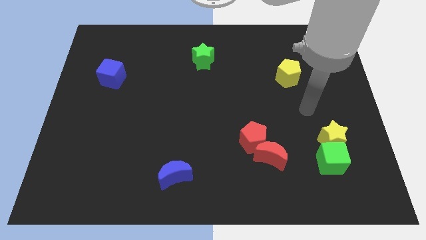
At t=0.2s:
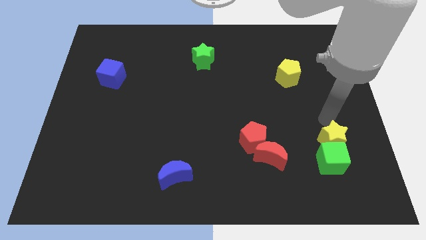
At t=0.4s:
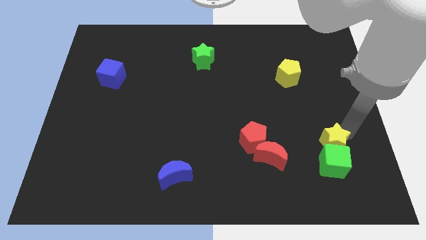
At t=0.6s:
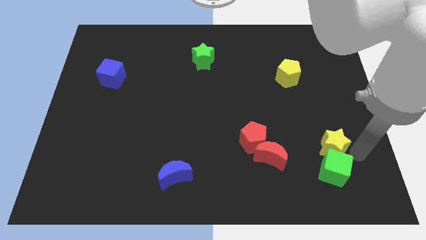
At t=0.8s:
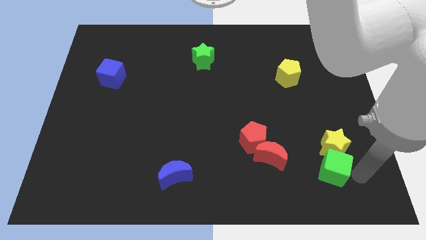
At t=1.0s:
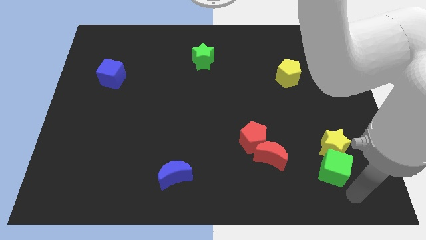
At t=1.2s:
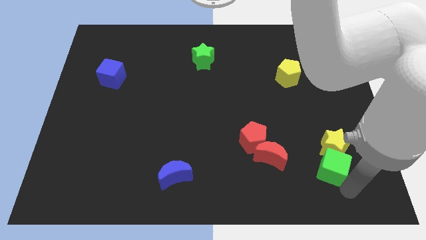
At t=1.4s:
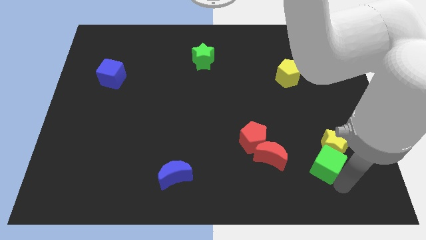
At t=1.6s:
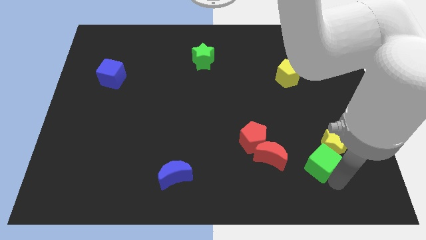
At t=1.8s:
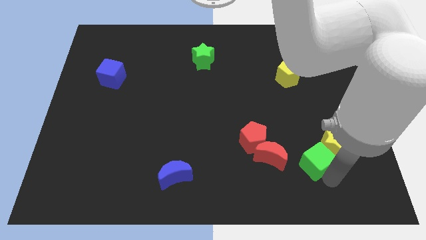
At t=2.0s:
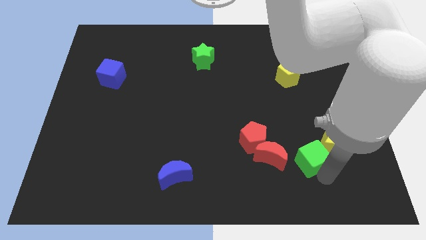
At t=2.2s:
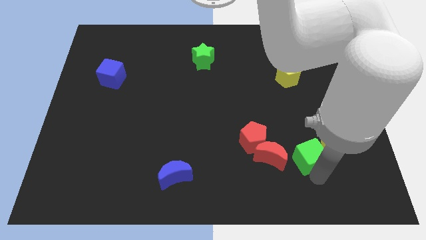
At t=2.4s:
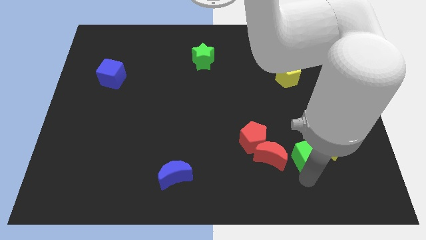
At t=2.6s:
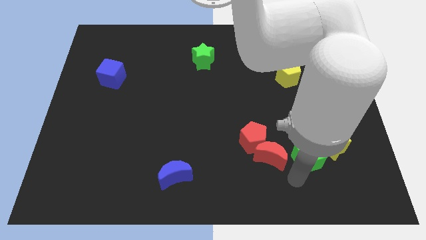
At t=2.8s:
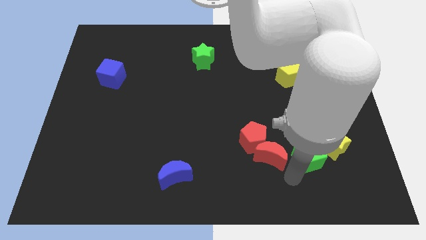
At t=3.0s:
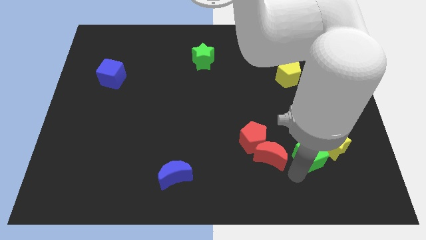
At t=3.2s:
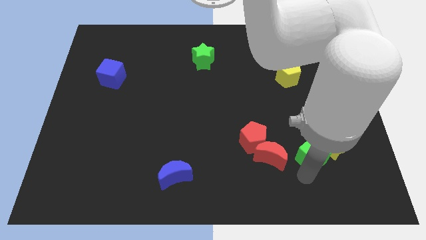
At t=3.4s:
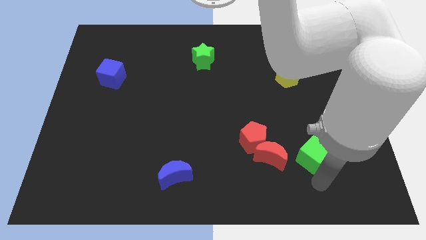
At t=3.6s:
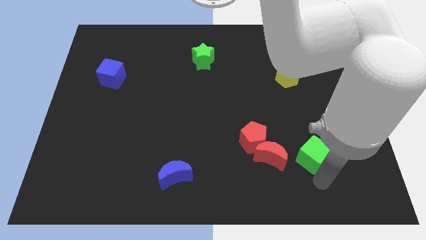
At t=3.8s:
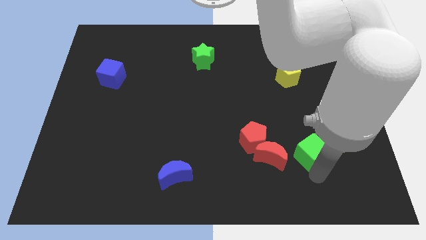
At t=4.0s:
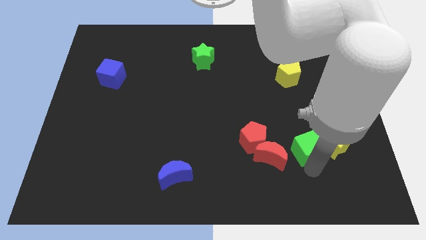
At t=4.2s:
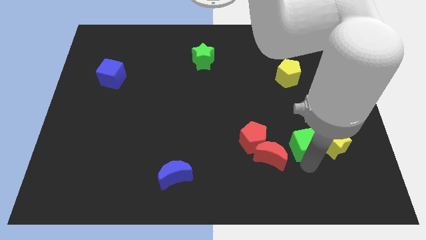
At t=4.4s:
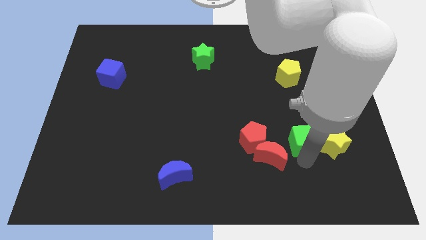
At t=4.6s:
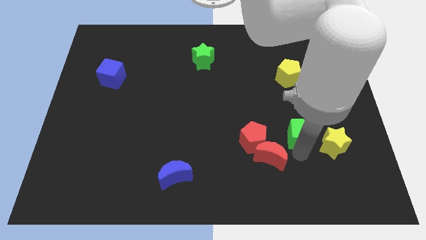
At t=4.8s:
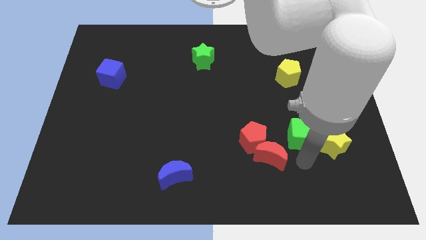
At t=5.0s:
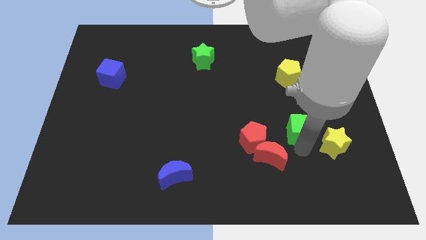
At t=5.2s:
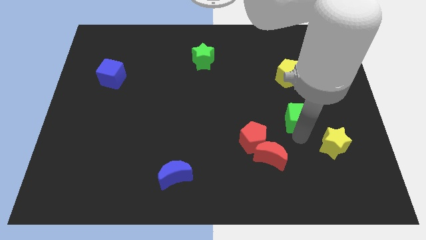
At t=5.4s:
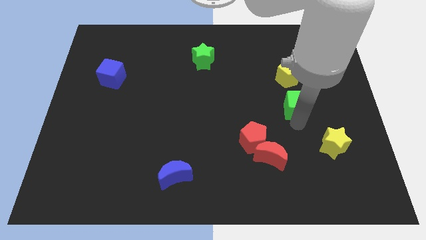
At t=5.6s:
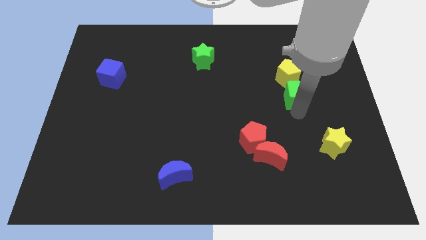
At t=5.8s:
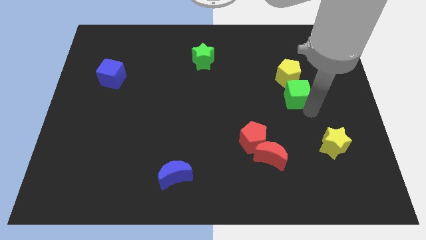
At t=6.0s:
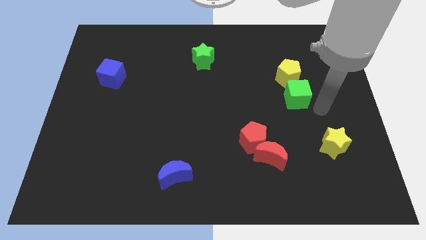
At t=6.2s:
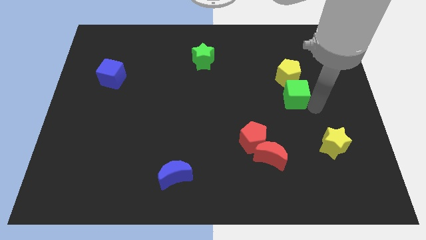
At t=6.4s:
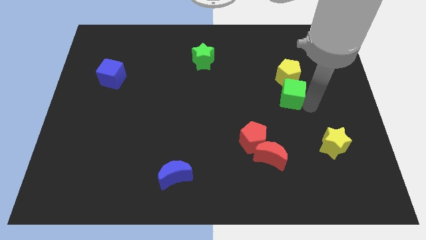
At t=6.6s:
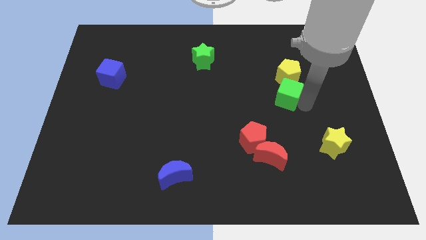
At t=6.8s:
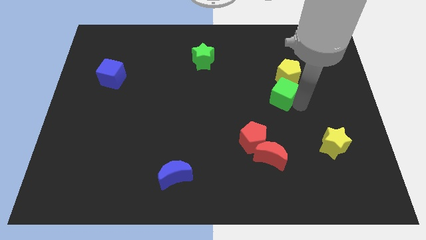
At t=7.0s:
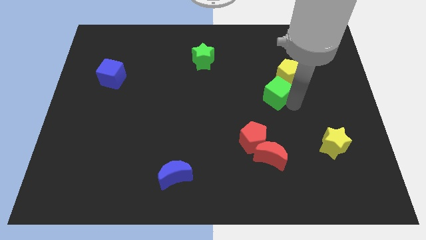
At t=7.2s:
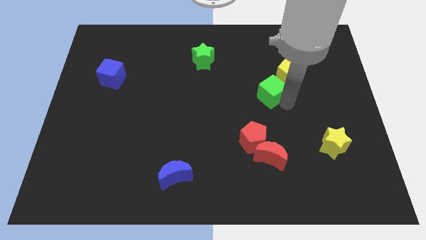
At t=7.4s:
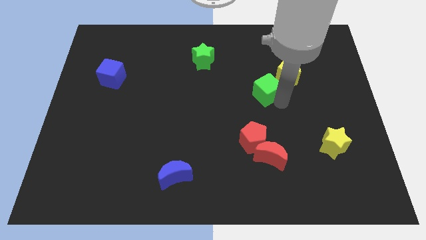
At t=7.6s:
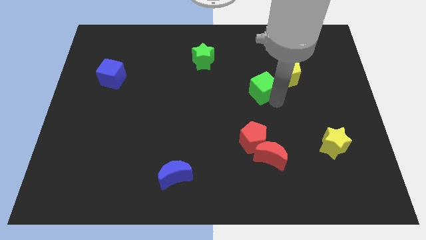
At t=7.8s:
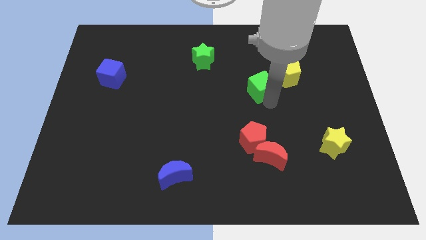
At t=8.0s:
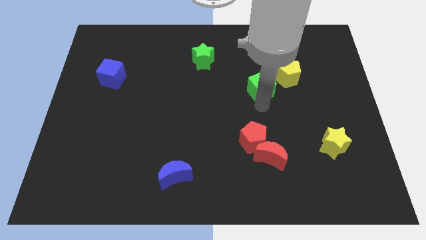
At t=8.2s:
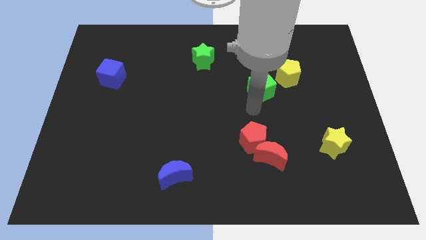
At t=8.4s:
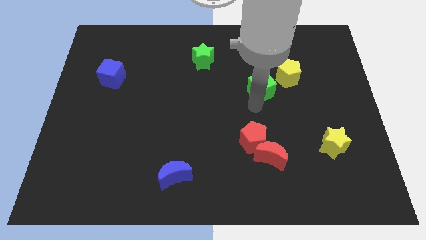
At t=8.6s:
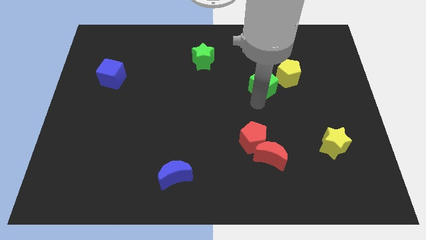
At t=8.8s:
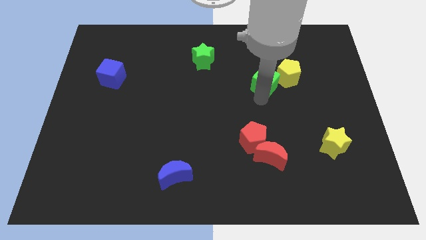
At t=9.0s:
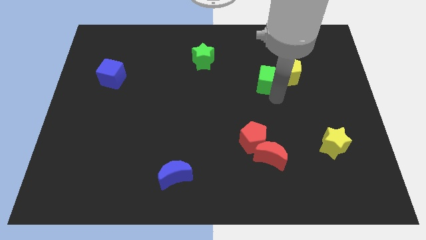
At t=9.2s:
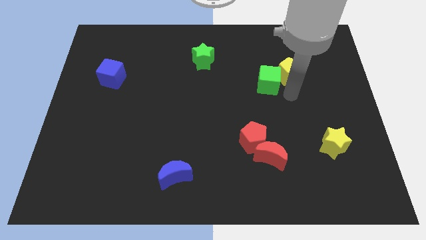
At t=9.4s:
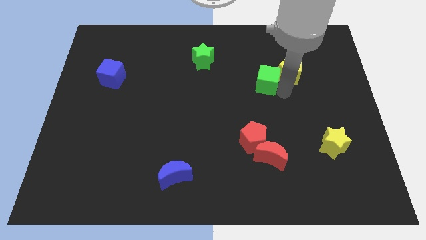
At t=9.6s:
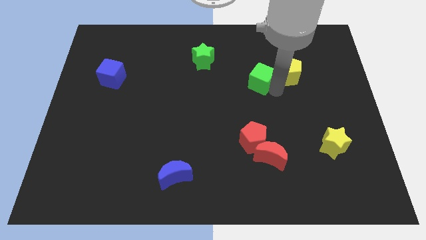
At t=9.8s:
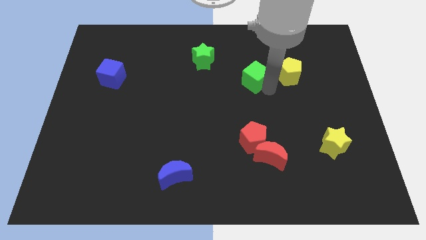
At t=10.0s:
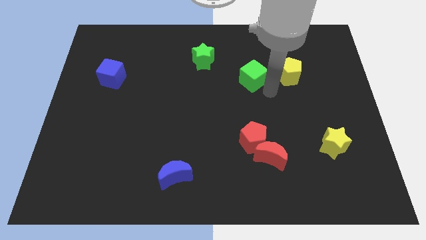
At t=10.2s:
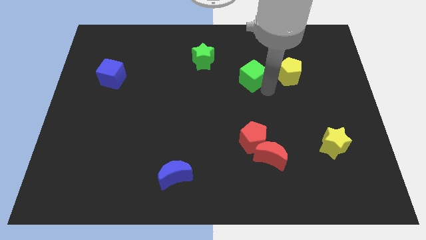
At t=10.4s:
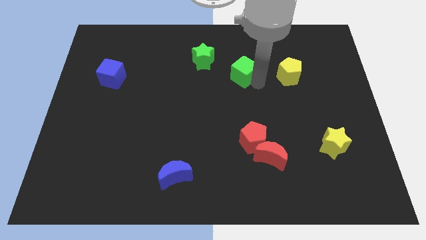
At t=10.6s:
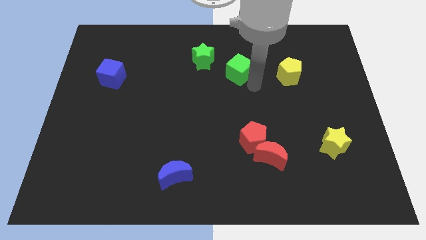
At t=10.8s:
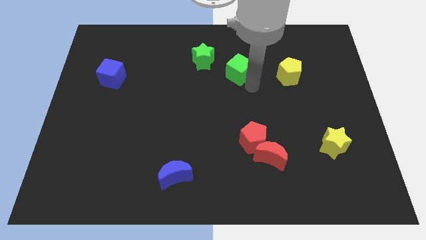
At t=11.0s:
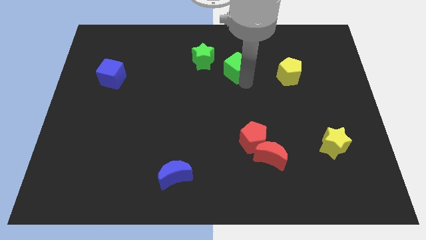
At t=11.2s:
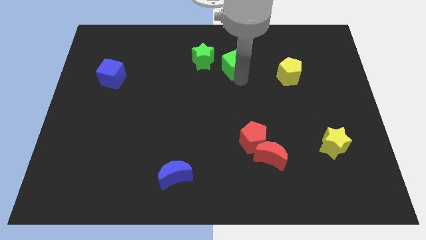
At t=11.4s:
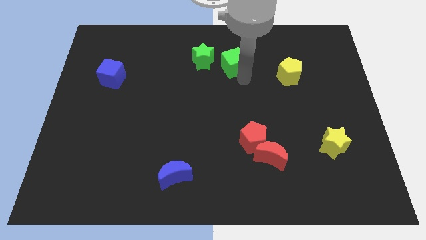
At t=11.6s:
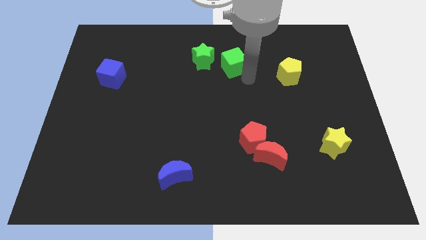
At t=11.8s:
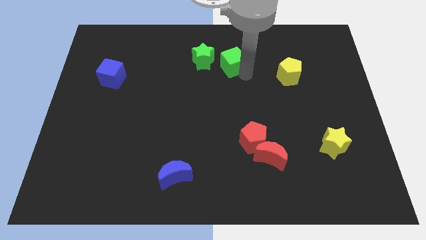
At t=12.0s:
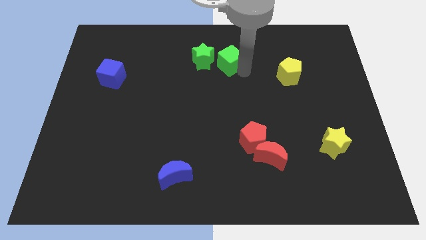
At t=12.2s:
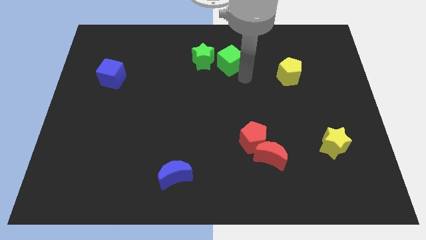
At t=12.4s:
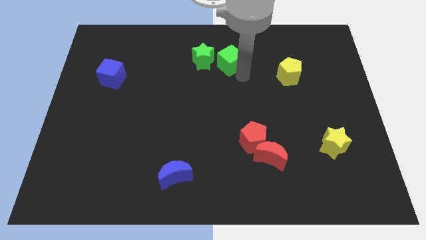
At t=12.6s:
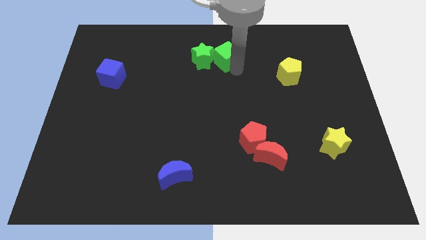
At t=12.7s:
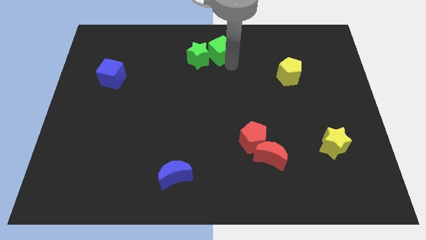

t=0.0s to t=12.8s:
put the green cube to the top

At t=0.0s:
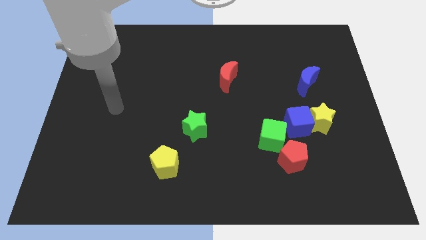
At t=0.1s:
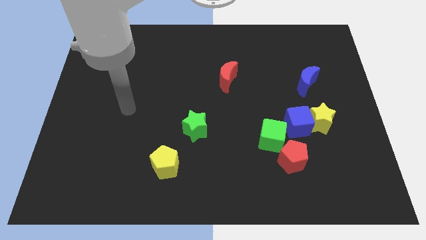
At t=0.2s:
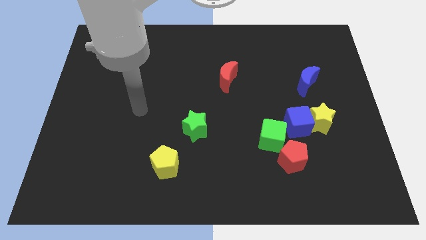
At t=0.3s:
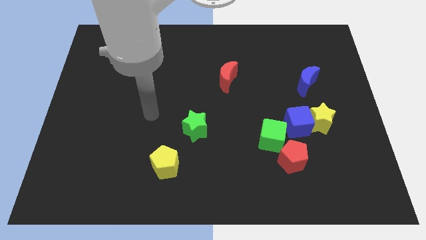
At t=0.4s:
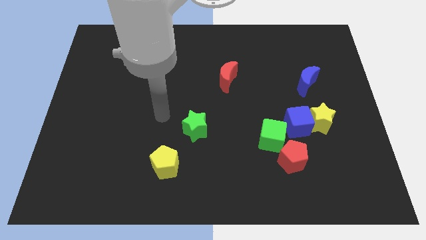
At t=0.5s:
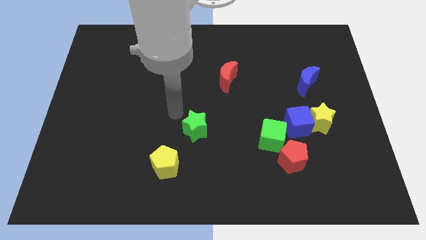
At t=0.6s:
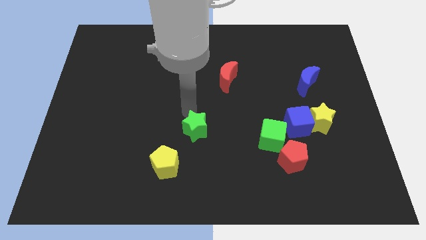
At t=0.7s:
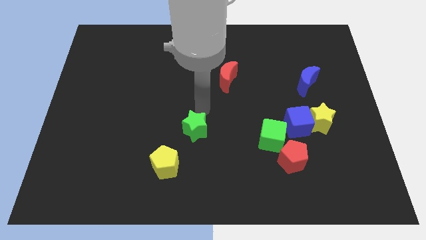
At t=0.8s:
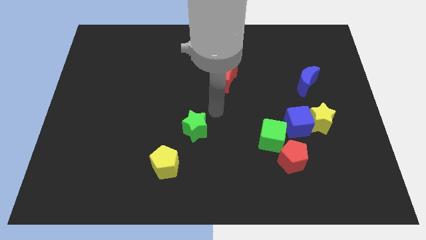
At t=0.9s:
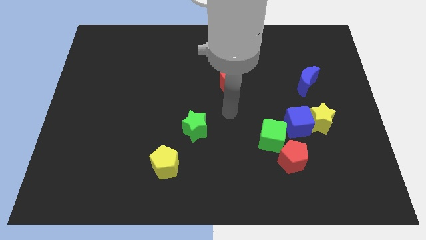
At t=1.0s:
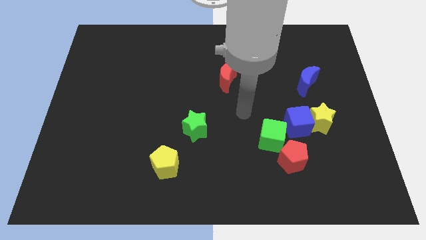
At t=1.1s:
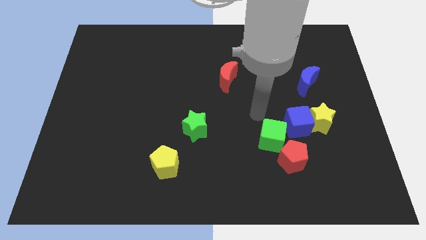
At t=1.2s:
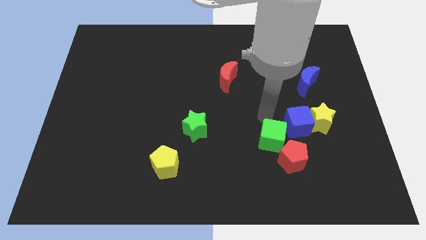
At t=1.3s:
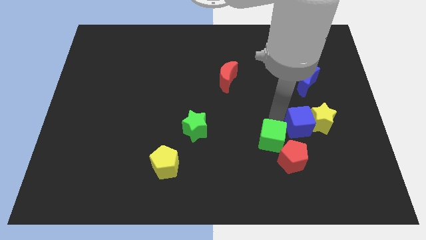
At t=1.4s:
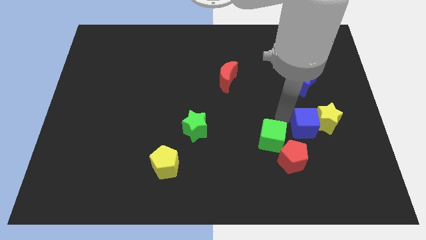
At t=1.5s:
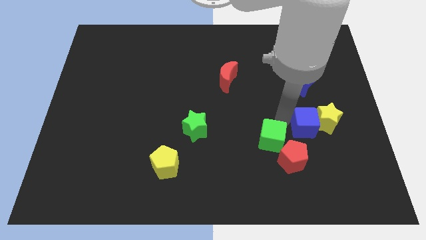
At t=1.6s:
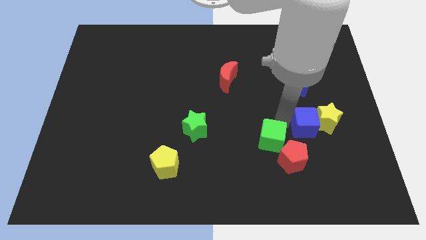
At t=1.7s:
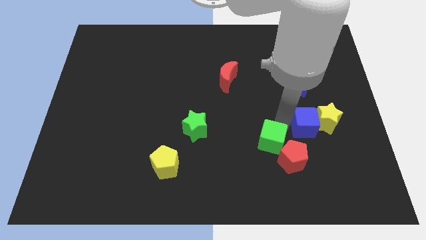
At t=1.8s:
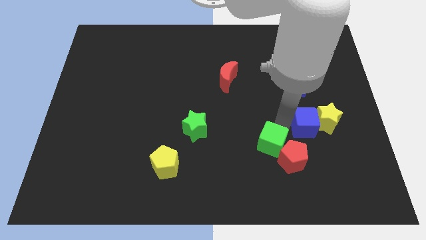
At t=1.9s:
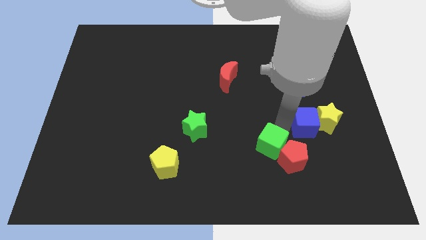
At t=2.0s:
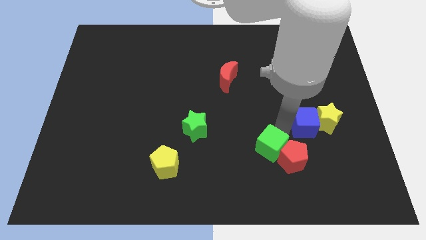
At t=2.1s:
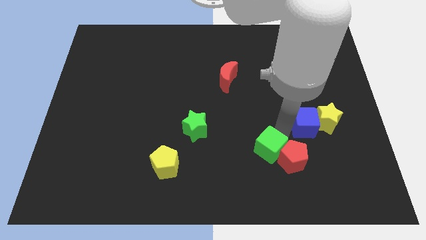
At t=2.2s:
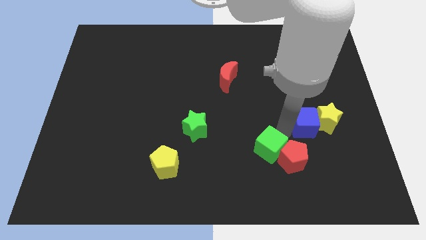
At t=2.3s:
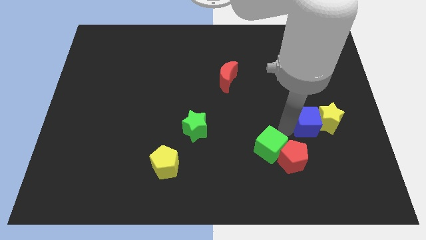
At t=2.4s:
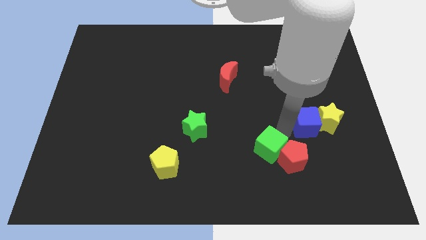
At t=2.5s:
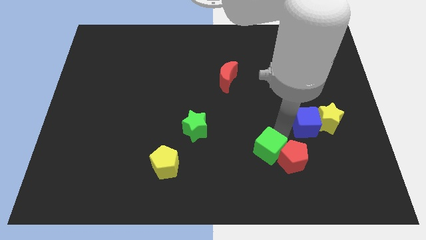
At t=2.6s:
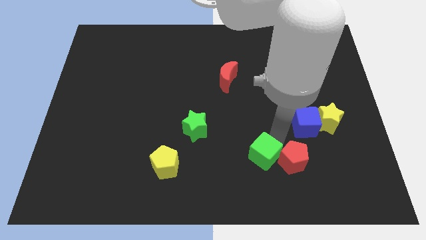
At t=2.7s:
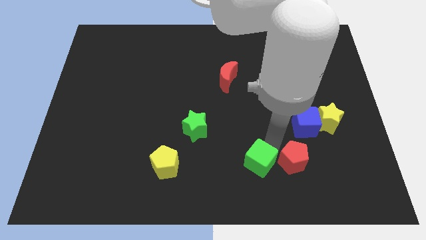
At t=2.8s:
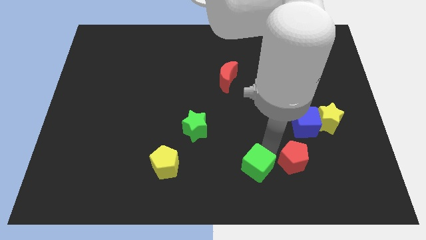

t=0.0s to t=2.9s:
slide the green cube to the bottom side
